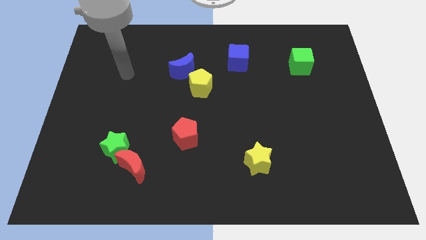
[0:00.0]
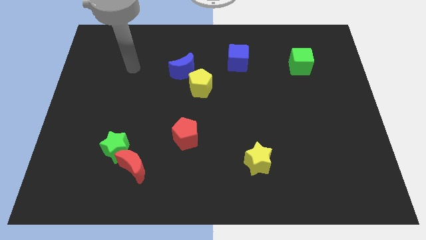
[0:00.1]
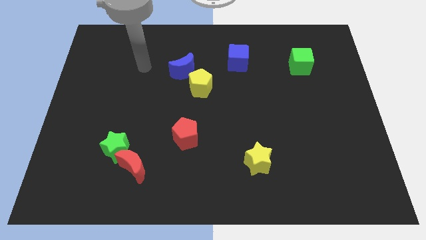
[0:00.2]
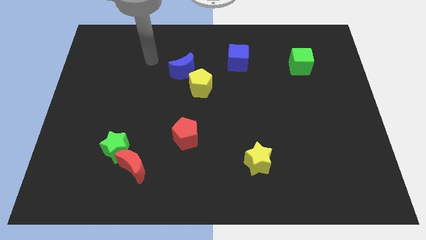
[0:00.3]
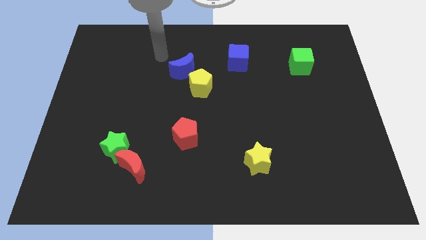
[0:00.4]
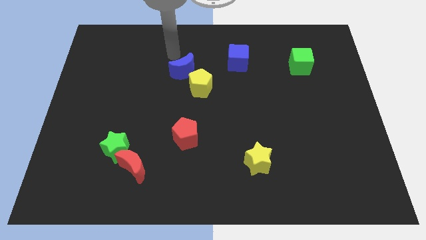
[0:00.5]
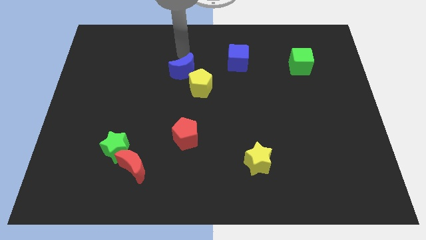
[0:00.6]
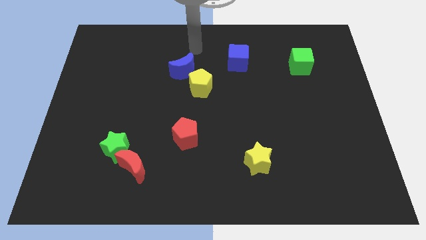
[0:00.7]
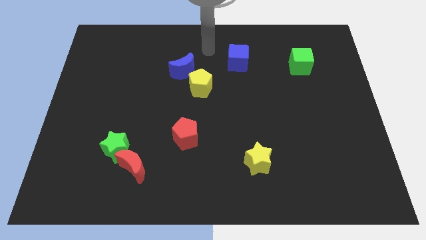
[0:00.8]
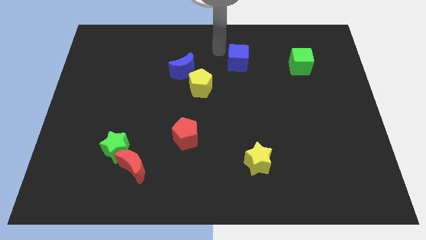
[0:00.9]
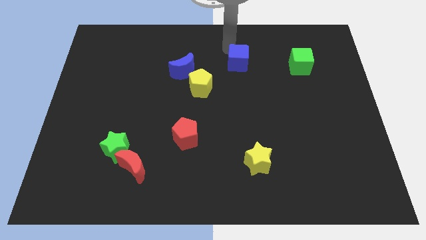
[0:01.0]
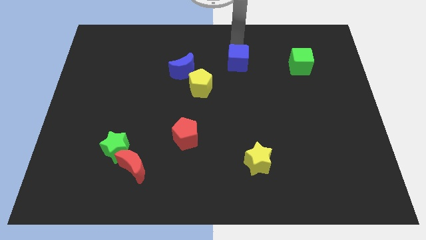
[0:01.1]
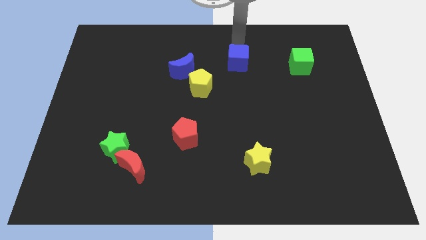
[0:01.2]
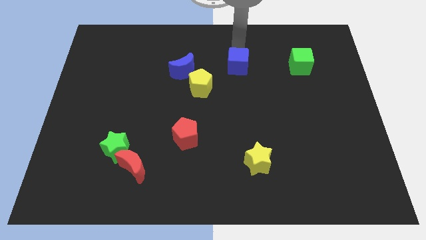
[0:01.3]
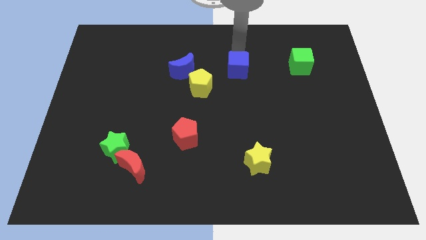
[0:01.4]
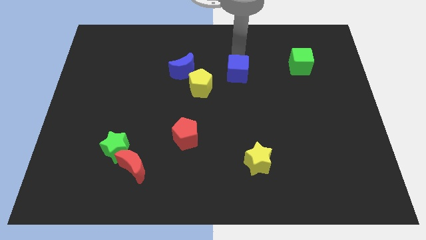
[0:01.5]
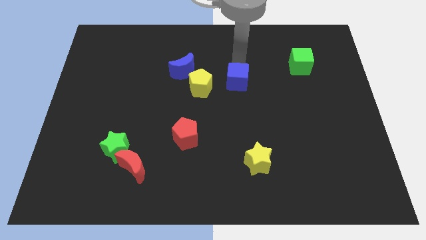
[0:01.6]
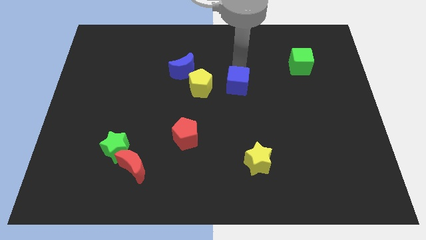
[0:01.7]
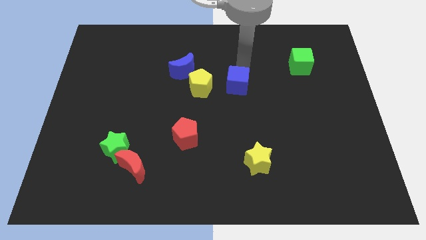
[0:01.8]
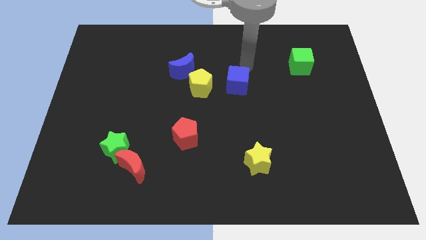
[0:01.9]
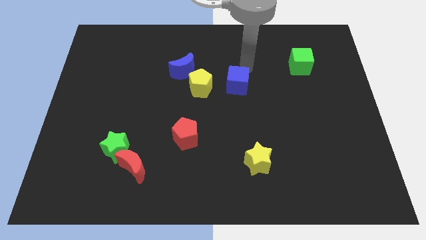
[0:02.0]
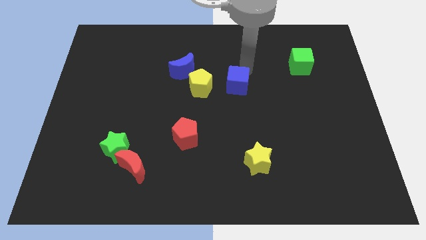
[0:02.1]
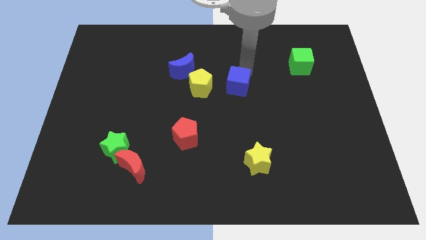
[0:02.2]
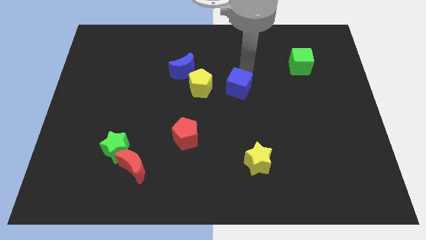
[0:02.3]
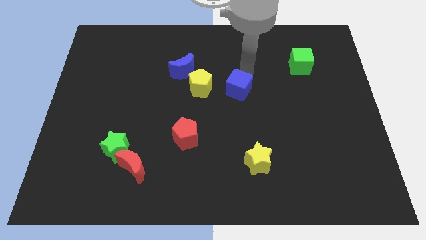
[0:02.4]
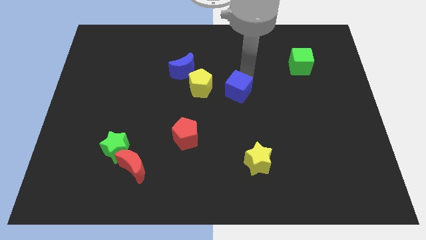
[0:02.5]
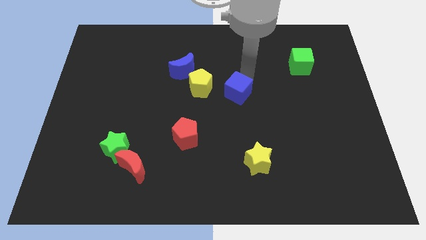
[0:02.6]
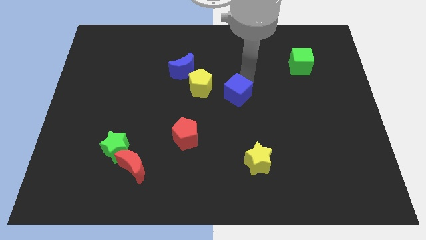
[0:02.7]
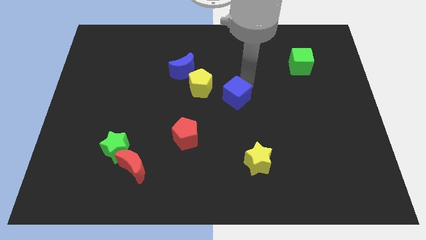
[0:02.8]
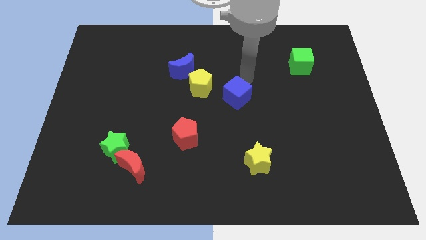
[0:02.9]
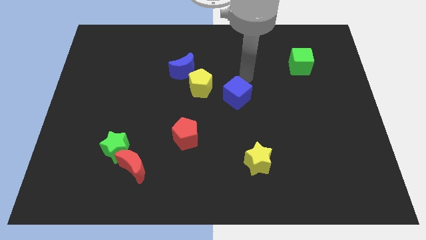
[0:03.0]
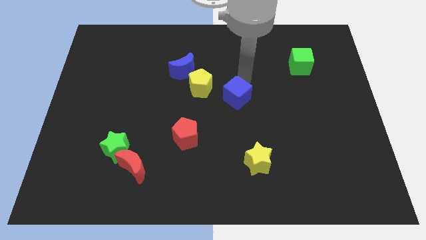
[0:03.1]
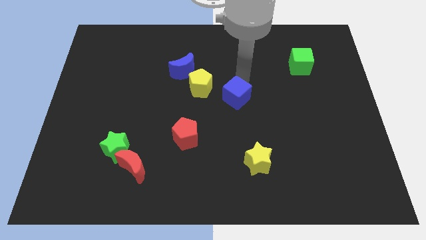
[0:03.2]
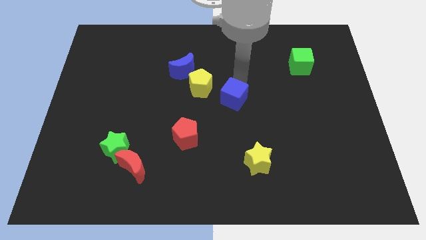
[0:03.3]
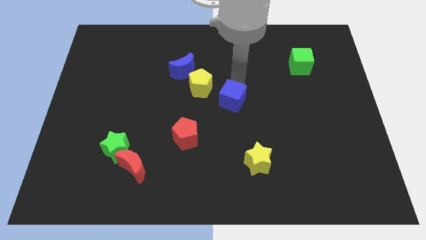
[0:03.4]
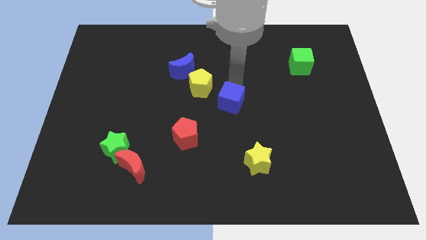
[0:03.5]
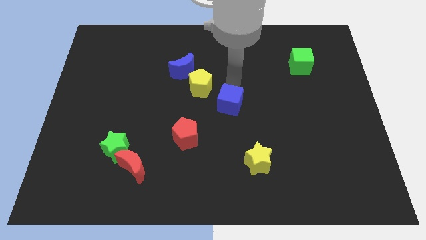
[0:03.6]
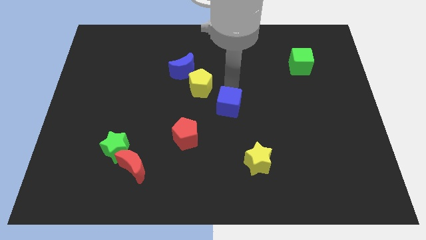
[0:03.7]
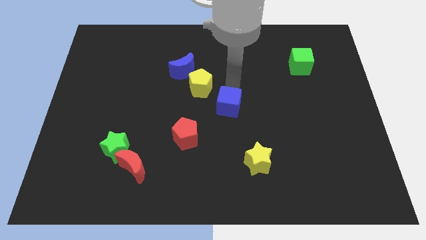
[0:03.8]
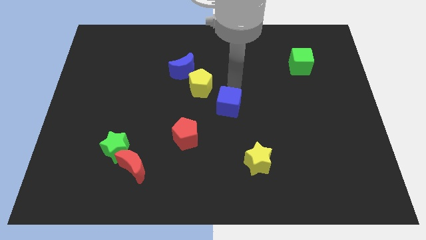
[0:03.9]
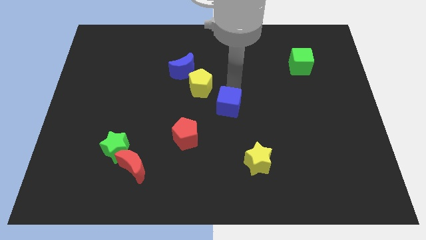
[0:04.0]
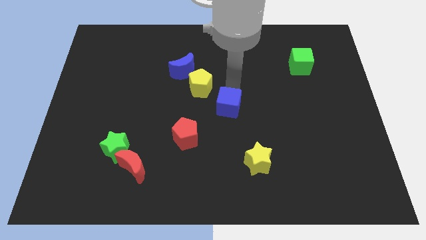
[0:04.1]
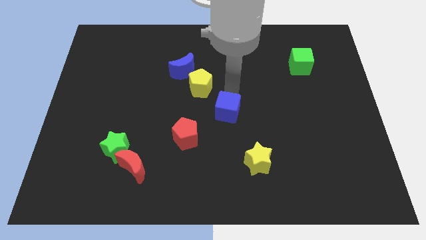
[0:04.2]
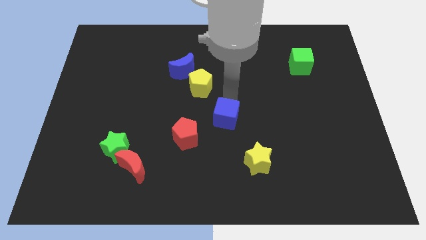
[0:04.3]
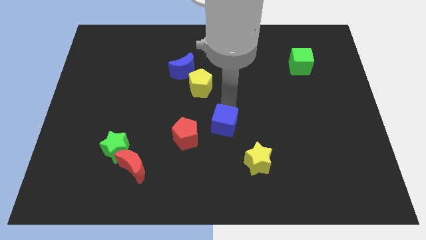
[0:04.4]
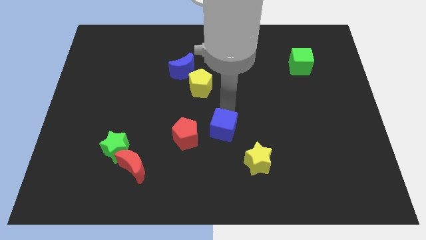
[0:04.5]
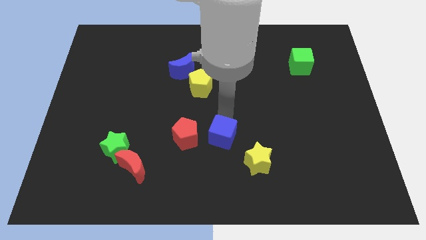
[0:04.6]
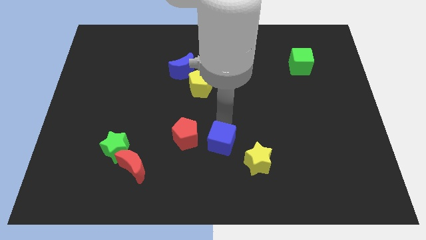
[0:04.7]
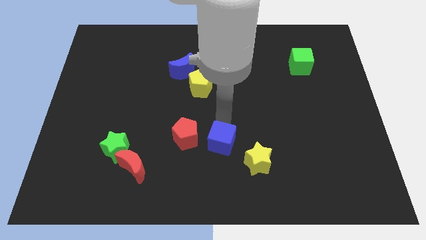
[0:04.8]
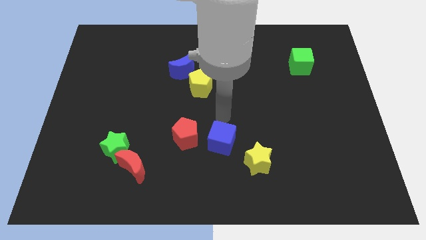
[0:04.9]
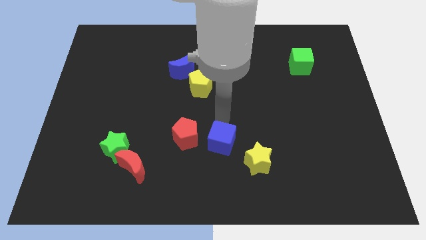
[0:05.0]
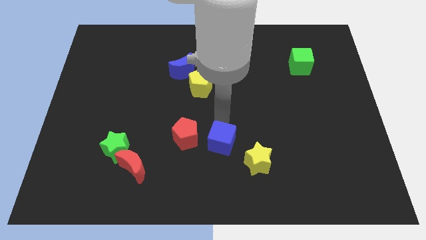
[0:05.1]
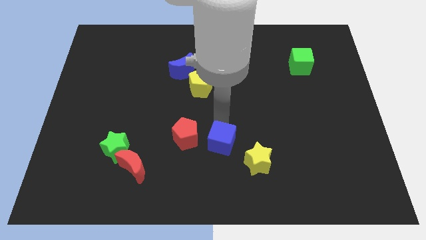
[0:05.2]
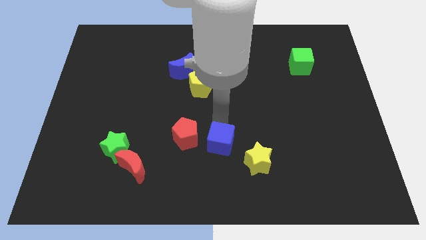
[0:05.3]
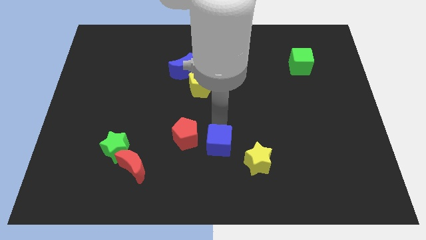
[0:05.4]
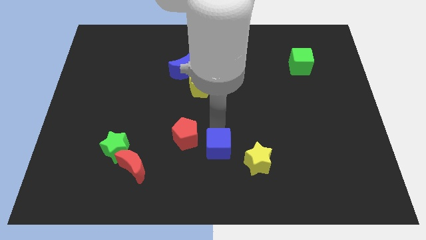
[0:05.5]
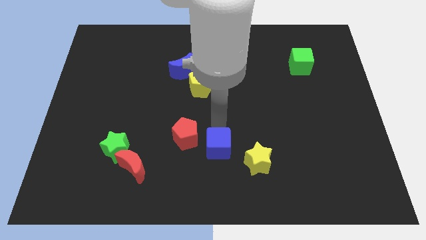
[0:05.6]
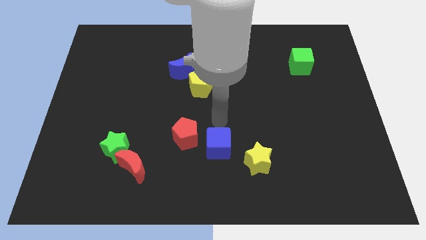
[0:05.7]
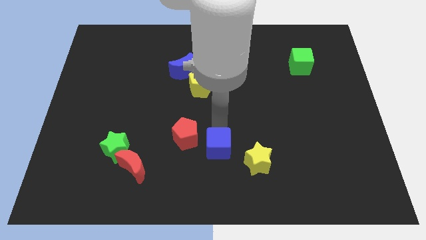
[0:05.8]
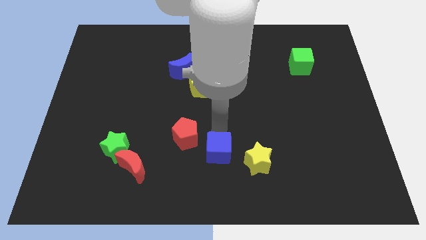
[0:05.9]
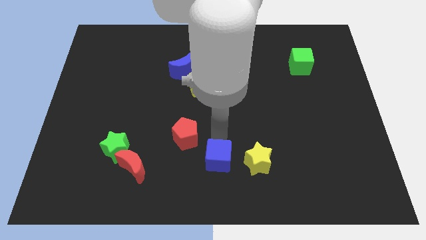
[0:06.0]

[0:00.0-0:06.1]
slide the blue cube to the bottom

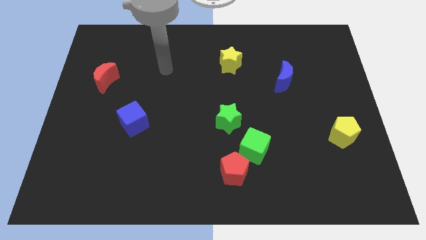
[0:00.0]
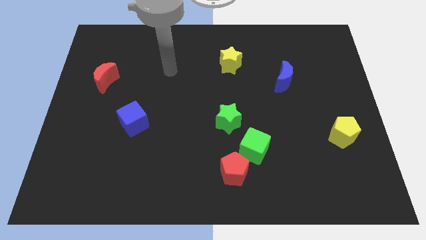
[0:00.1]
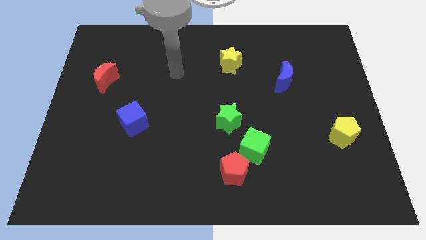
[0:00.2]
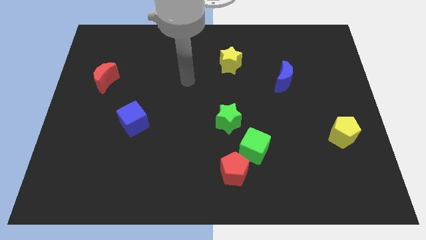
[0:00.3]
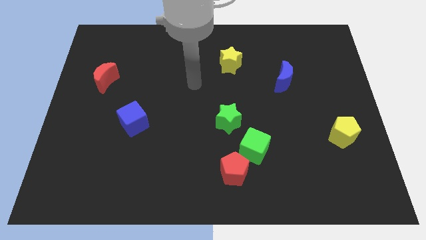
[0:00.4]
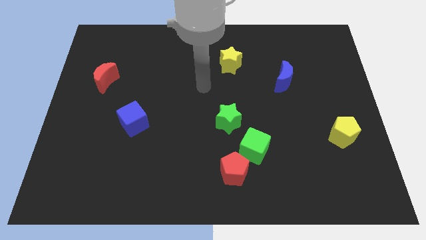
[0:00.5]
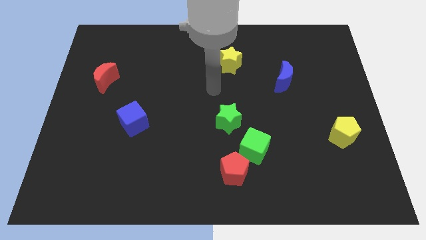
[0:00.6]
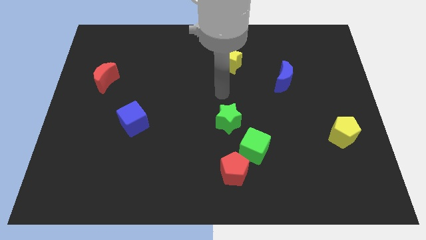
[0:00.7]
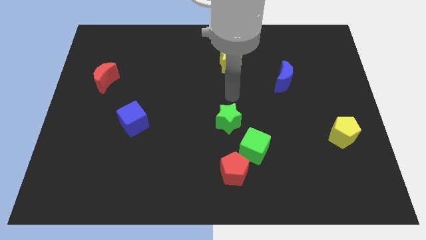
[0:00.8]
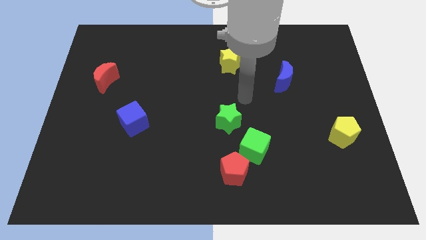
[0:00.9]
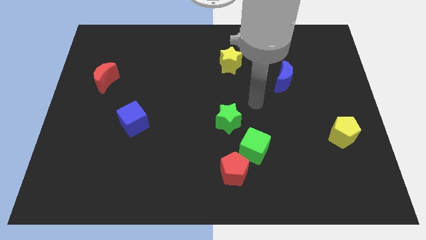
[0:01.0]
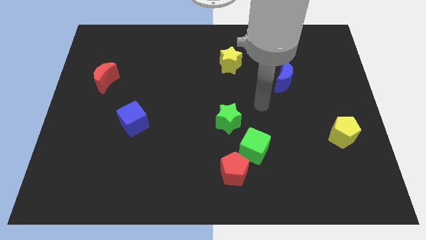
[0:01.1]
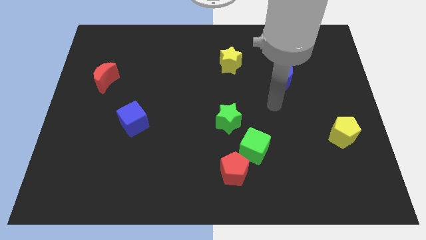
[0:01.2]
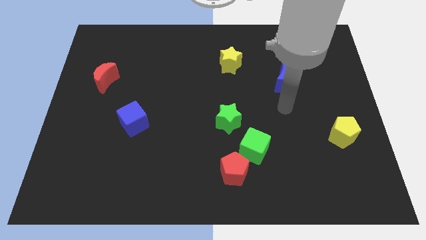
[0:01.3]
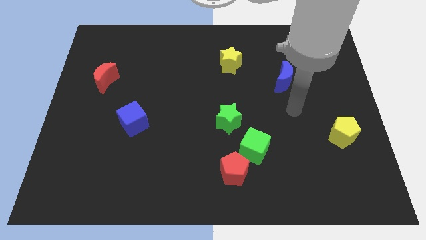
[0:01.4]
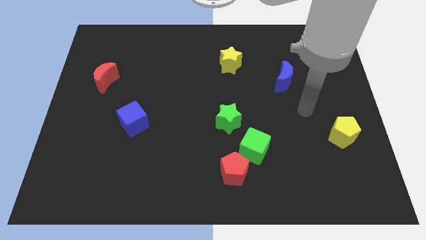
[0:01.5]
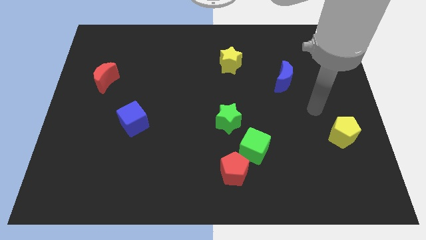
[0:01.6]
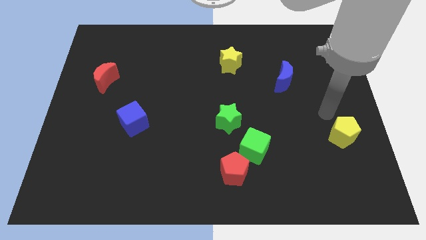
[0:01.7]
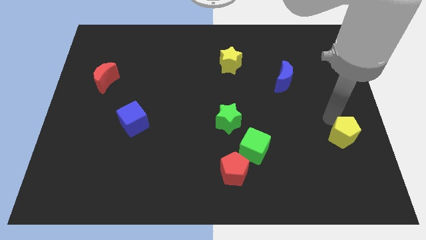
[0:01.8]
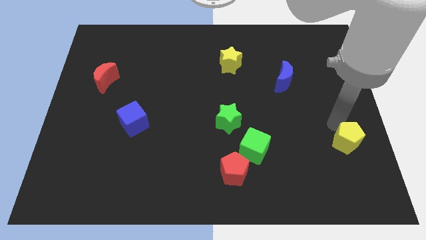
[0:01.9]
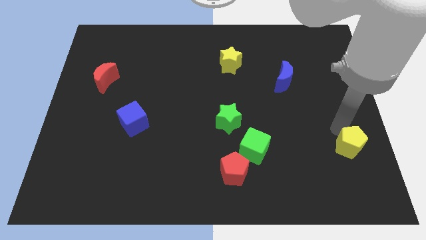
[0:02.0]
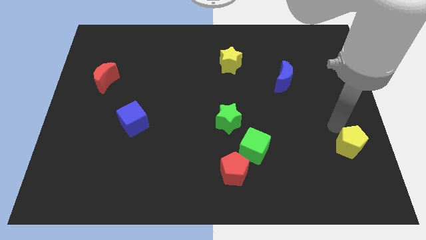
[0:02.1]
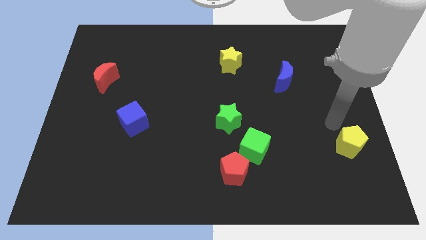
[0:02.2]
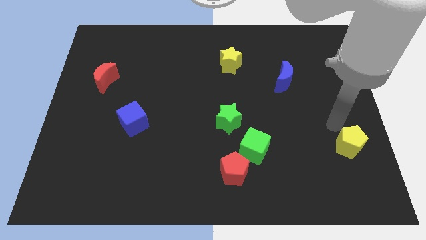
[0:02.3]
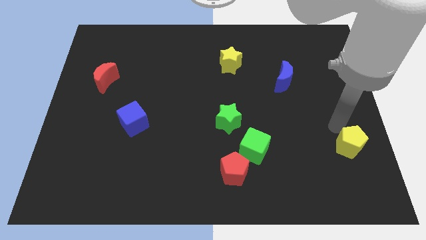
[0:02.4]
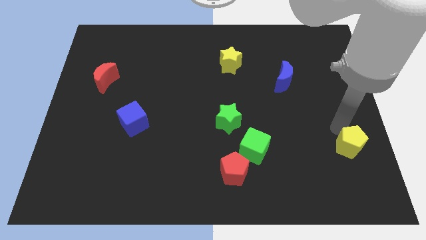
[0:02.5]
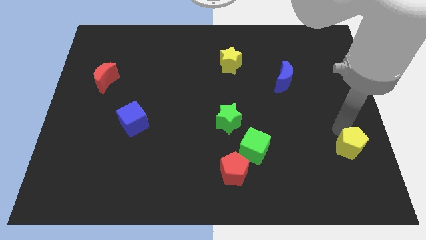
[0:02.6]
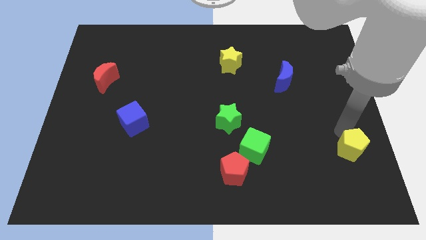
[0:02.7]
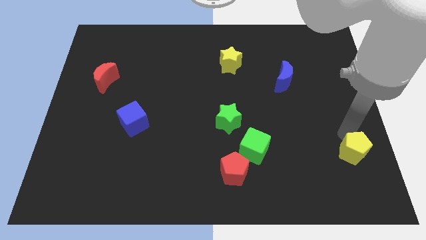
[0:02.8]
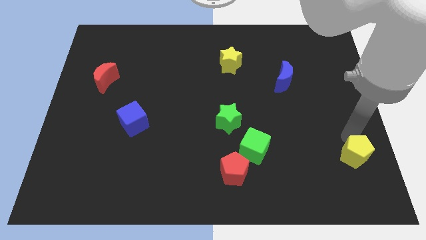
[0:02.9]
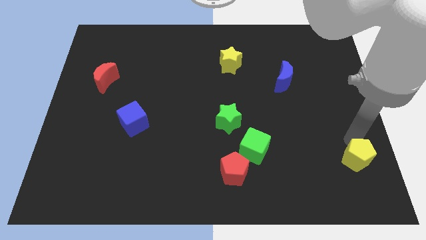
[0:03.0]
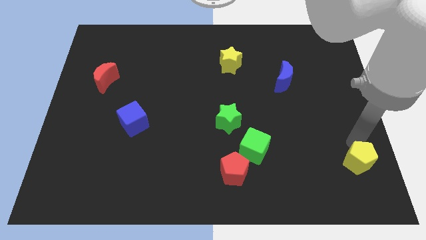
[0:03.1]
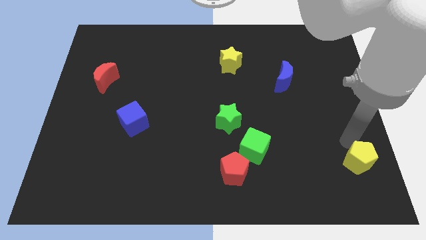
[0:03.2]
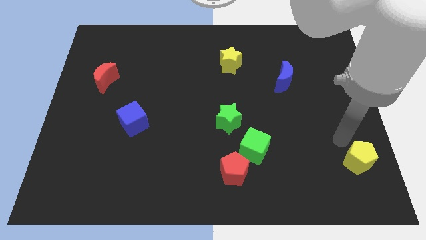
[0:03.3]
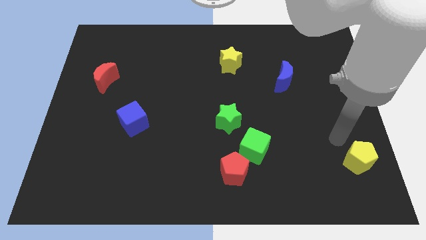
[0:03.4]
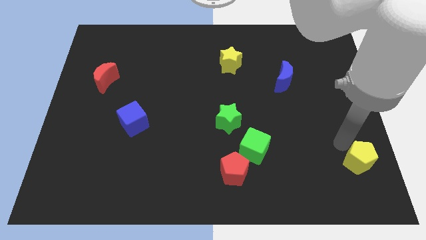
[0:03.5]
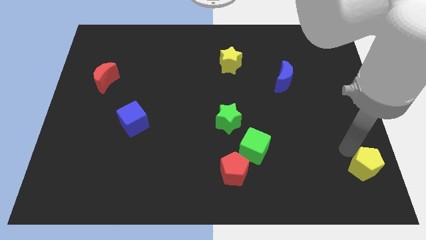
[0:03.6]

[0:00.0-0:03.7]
slide the yellow pentagon to the lower right corner
